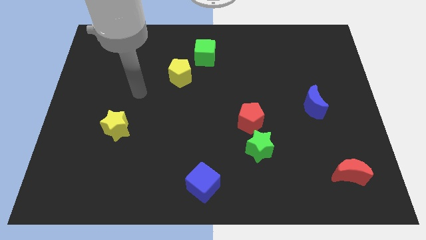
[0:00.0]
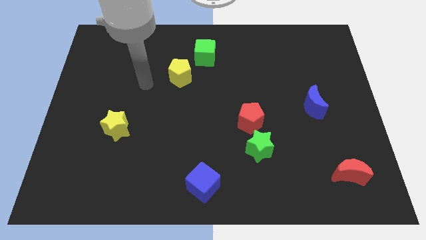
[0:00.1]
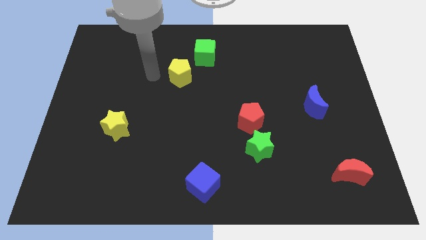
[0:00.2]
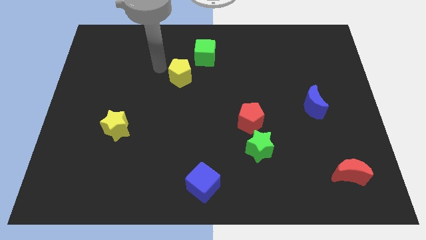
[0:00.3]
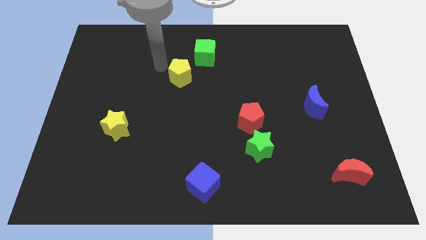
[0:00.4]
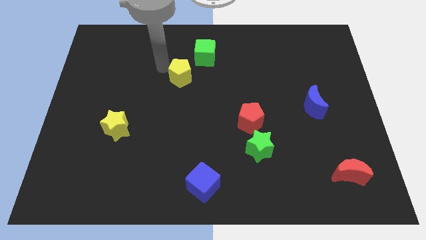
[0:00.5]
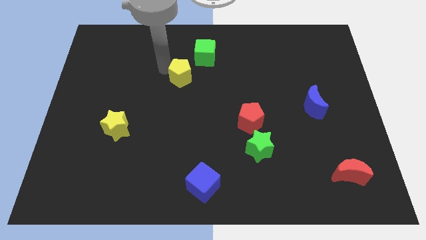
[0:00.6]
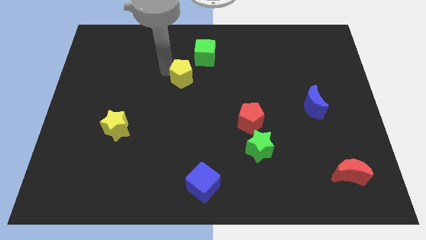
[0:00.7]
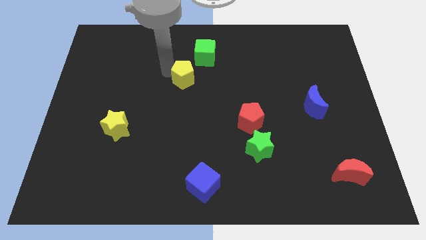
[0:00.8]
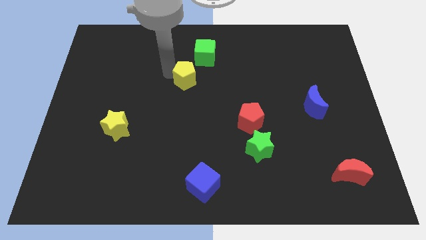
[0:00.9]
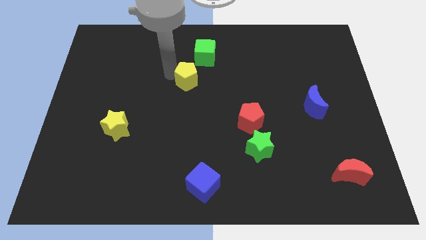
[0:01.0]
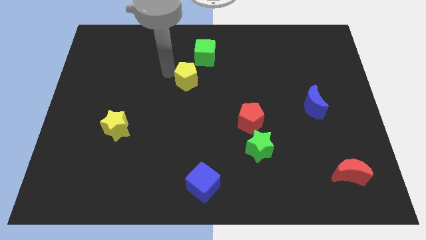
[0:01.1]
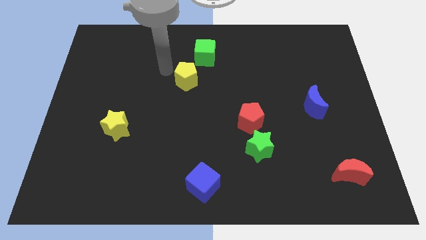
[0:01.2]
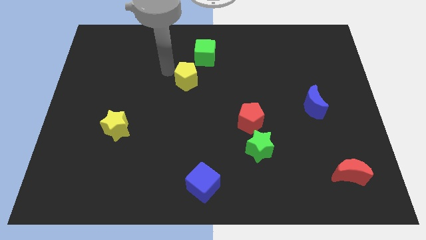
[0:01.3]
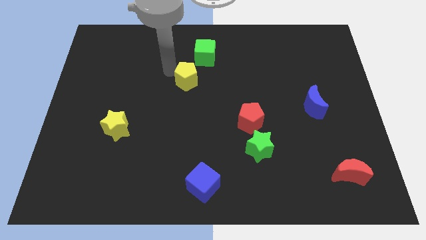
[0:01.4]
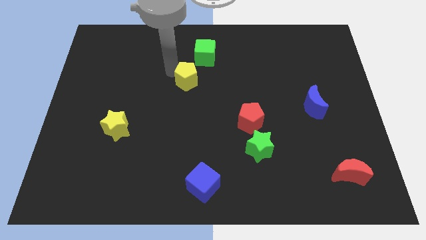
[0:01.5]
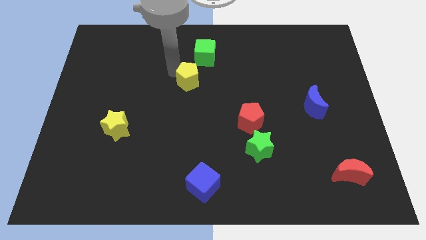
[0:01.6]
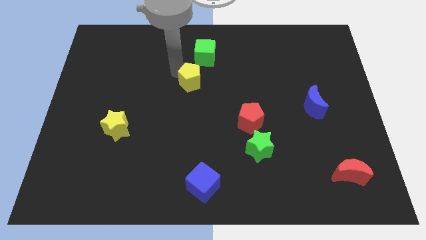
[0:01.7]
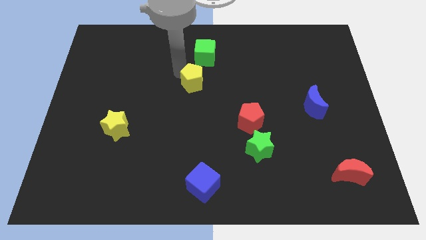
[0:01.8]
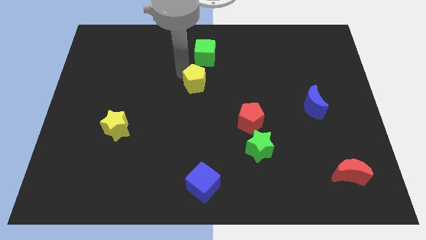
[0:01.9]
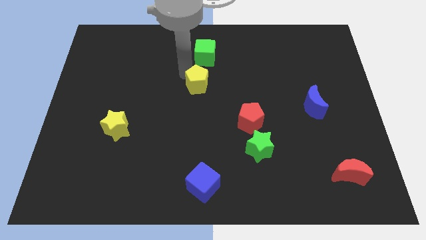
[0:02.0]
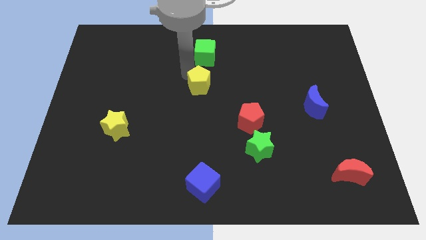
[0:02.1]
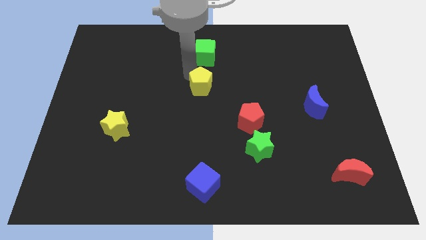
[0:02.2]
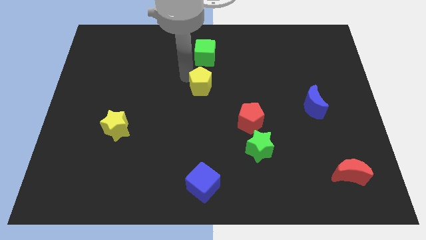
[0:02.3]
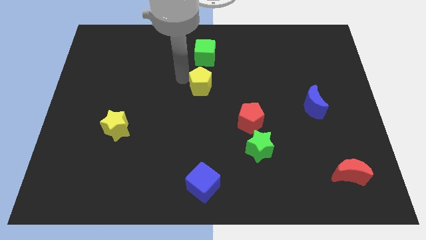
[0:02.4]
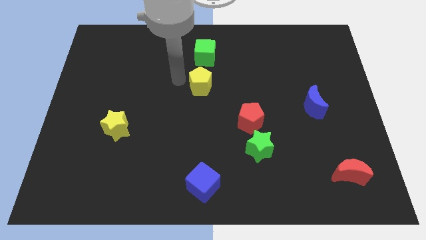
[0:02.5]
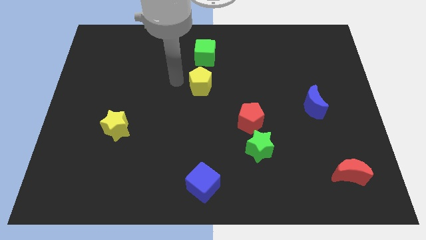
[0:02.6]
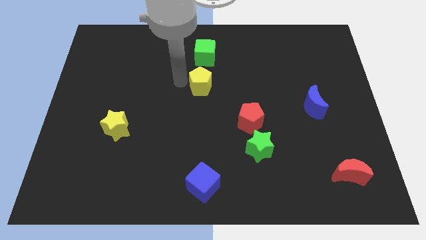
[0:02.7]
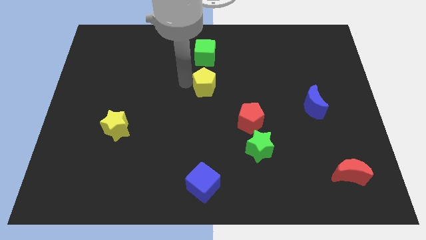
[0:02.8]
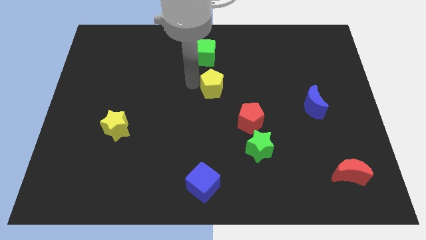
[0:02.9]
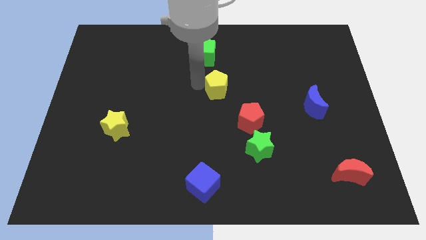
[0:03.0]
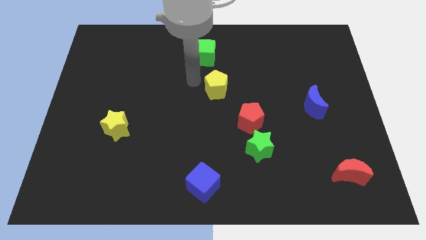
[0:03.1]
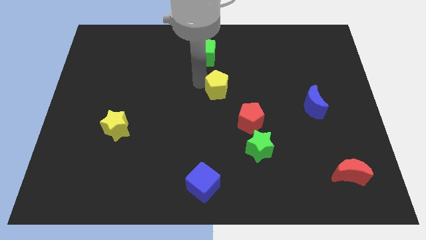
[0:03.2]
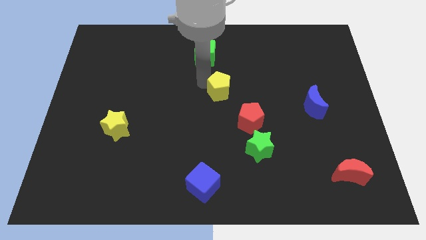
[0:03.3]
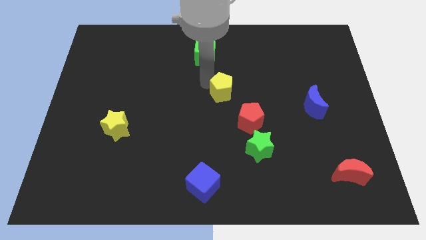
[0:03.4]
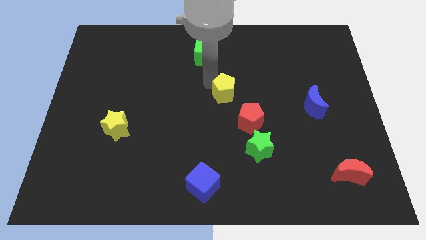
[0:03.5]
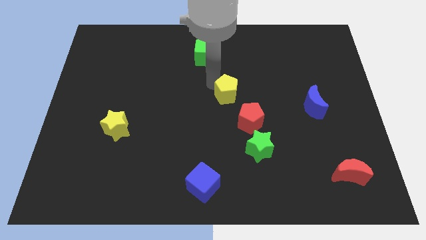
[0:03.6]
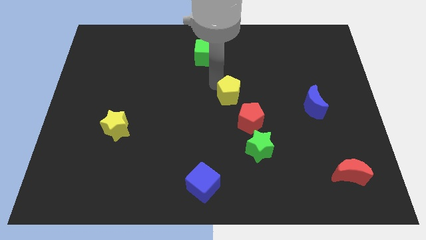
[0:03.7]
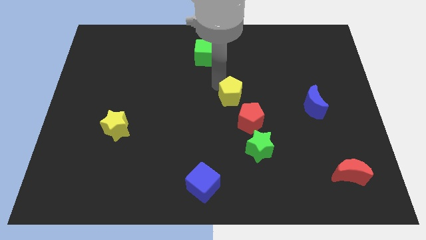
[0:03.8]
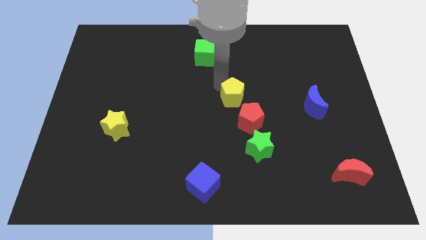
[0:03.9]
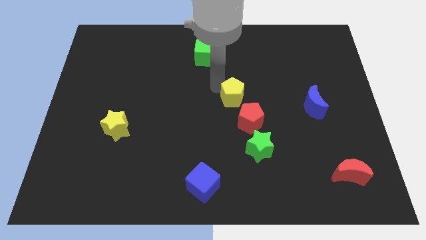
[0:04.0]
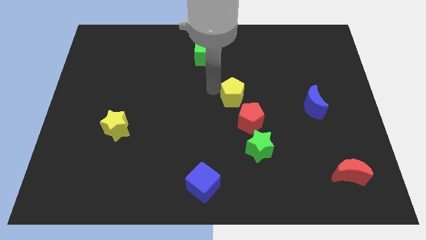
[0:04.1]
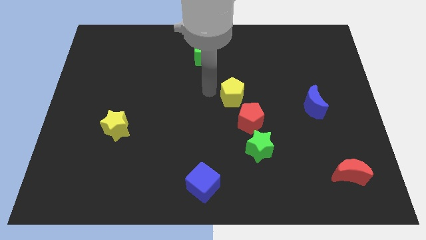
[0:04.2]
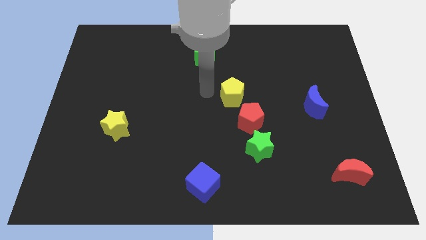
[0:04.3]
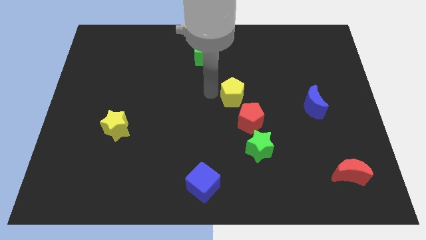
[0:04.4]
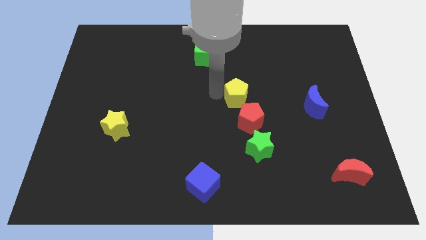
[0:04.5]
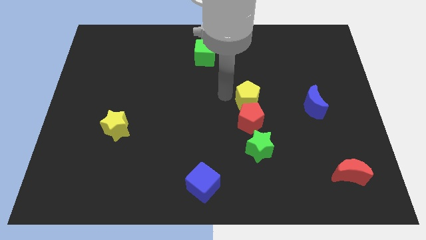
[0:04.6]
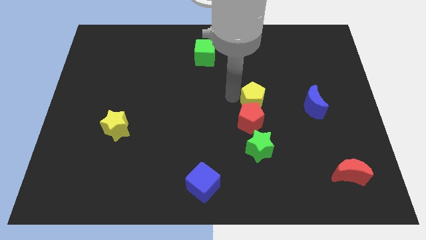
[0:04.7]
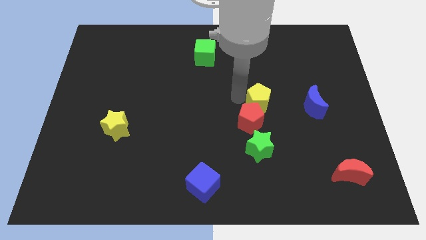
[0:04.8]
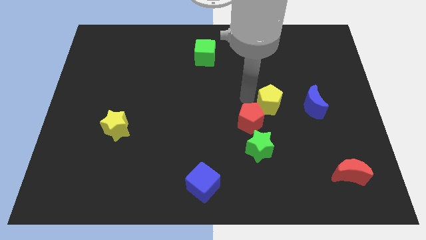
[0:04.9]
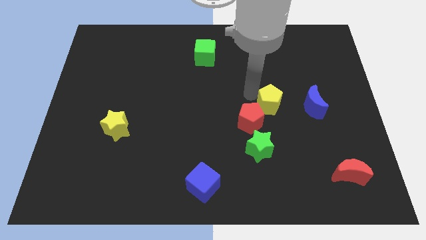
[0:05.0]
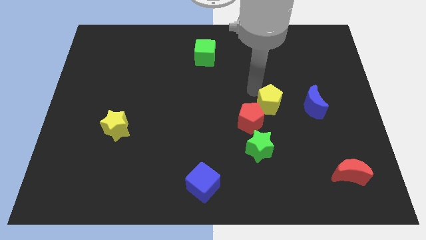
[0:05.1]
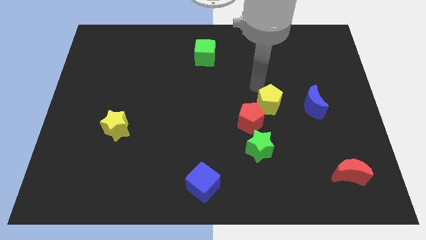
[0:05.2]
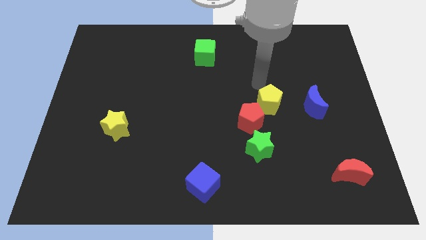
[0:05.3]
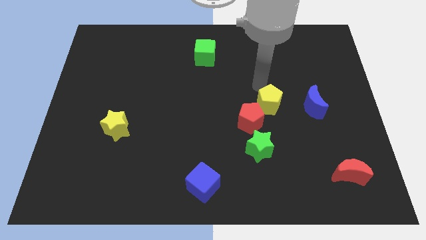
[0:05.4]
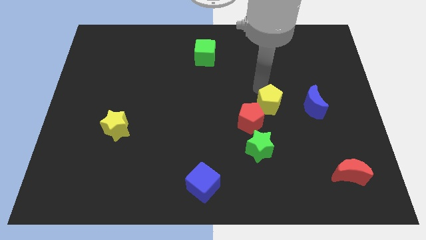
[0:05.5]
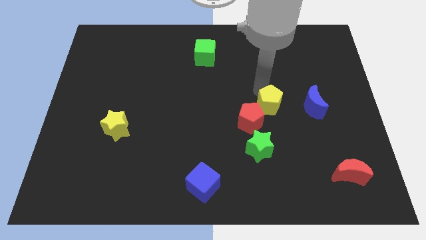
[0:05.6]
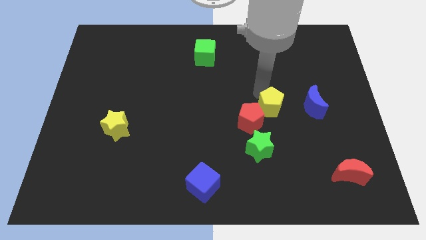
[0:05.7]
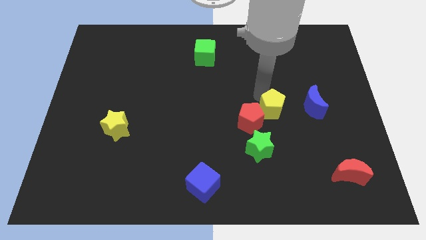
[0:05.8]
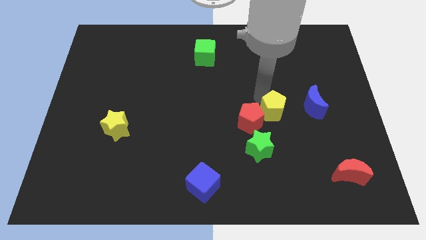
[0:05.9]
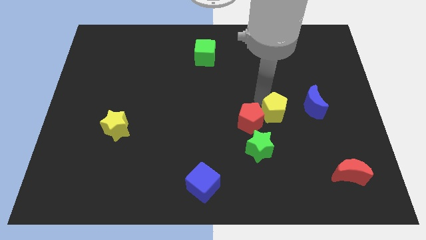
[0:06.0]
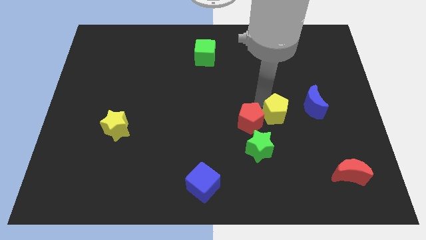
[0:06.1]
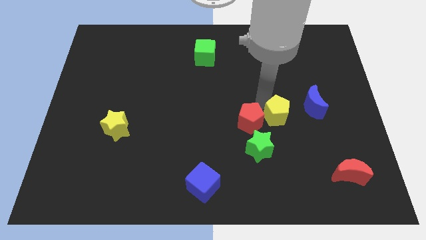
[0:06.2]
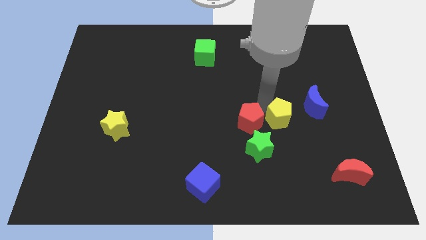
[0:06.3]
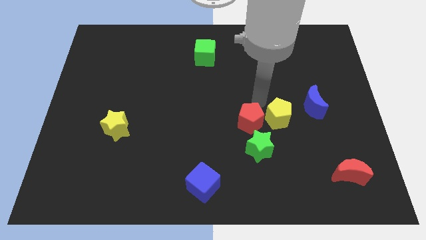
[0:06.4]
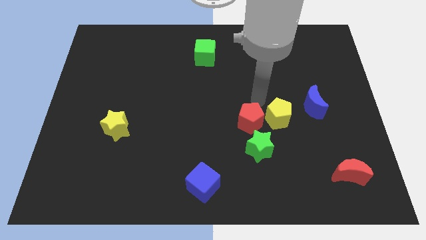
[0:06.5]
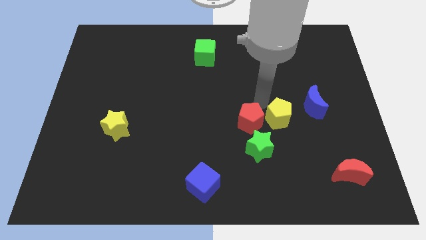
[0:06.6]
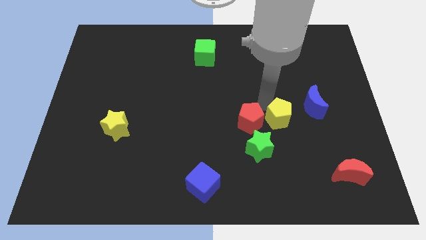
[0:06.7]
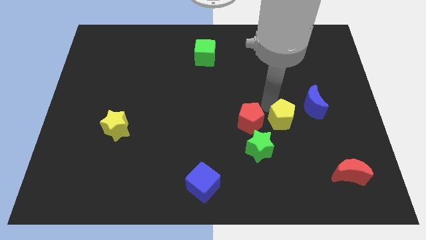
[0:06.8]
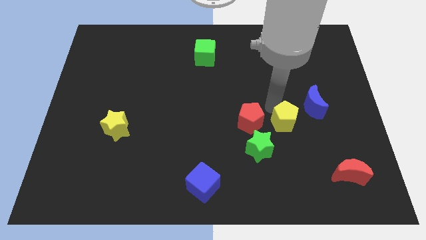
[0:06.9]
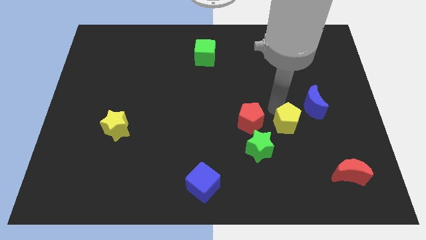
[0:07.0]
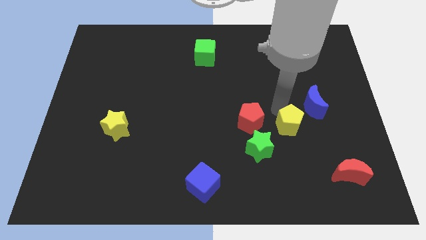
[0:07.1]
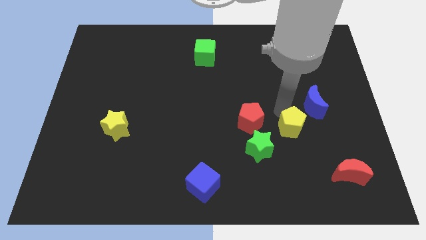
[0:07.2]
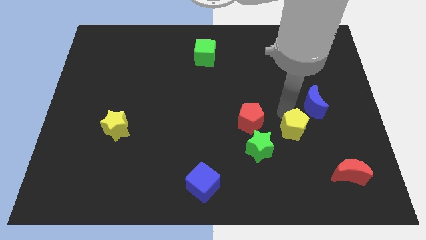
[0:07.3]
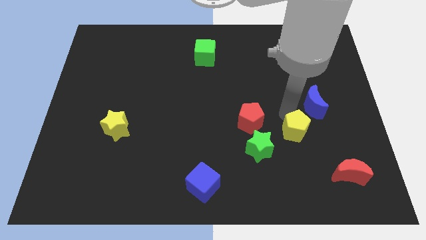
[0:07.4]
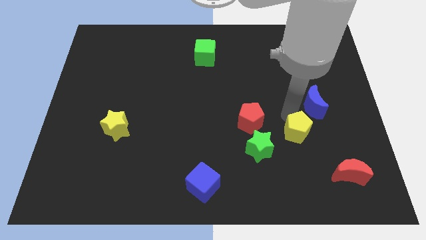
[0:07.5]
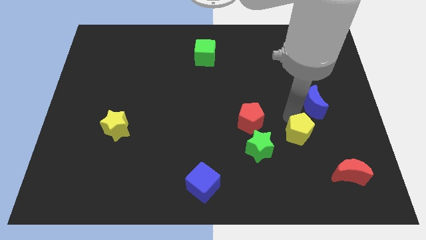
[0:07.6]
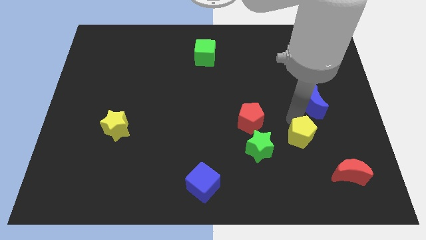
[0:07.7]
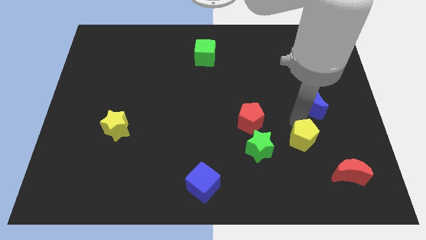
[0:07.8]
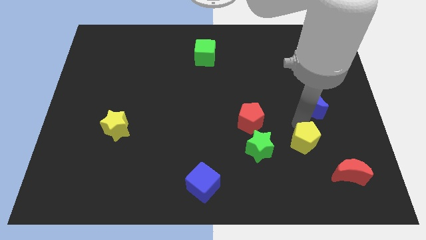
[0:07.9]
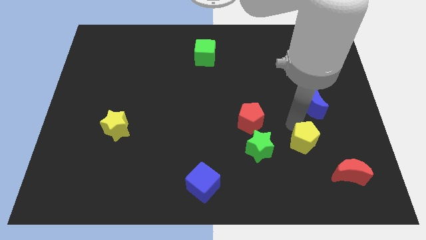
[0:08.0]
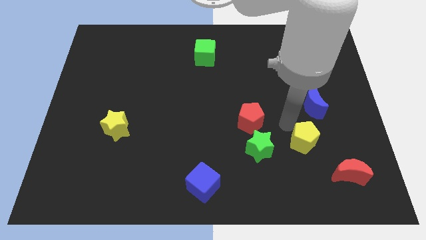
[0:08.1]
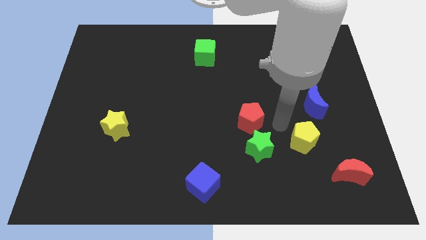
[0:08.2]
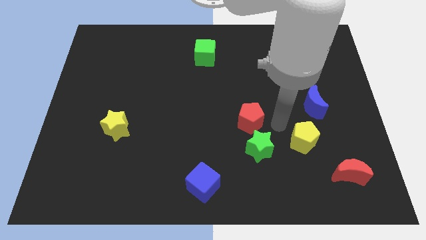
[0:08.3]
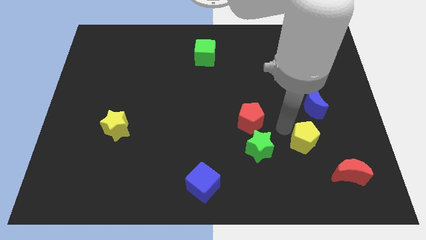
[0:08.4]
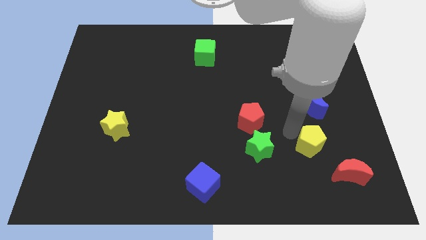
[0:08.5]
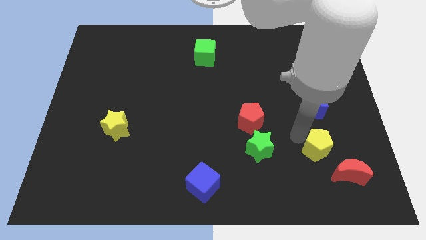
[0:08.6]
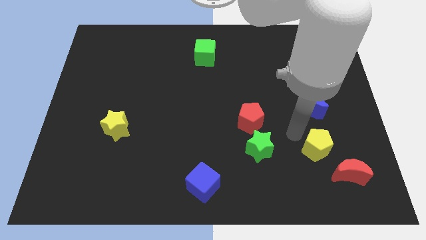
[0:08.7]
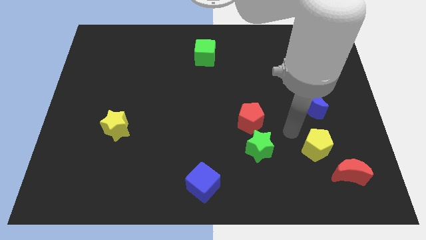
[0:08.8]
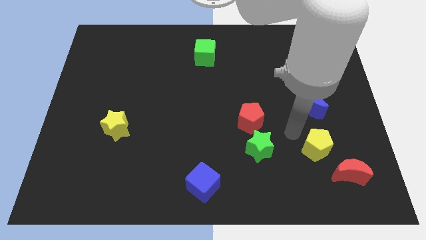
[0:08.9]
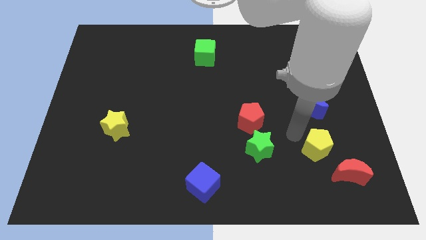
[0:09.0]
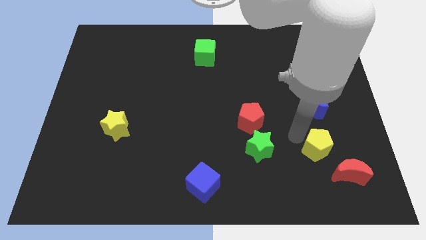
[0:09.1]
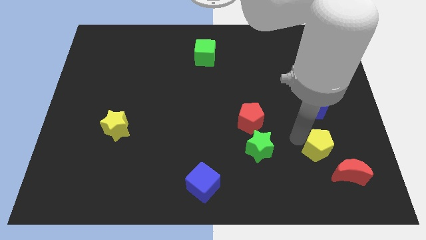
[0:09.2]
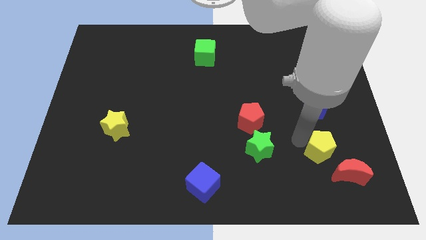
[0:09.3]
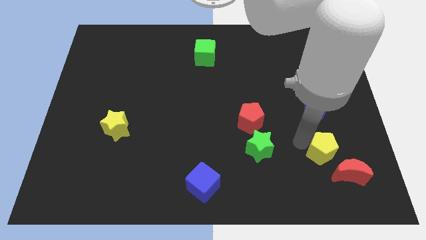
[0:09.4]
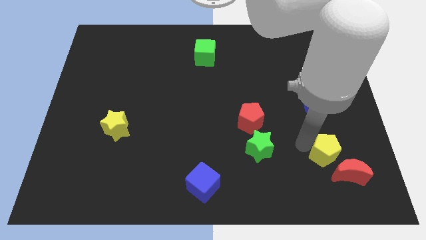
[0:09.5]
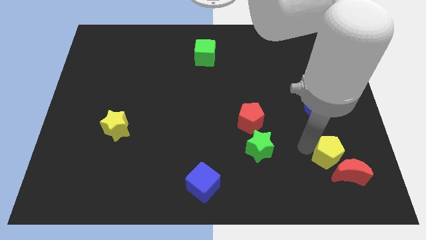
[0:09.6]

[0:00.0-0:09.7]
push the yellow pentagon next to the red moon
